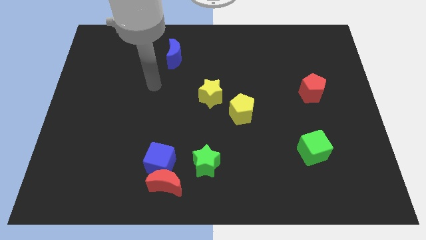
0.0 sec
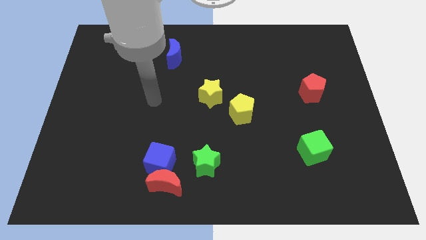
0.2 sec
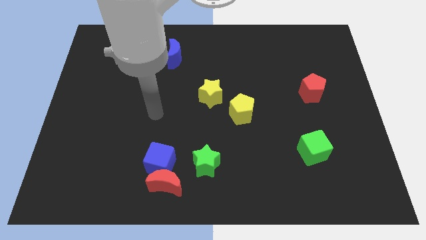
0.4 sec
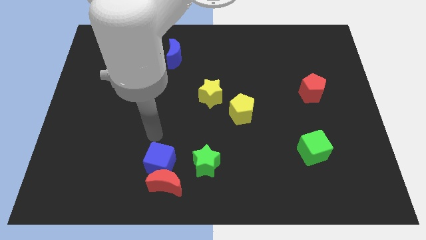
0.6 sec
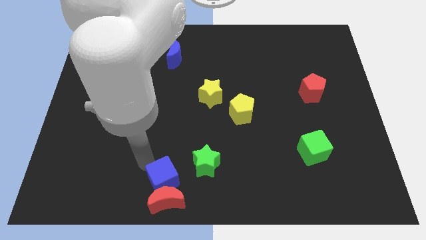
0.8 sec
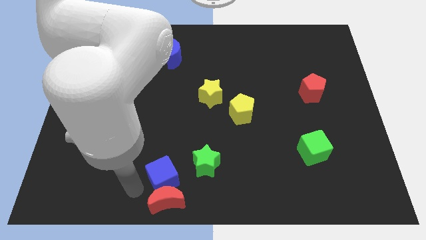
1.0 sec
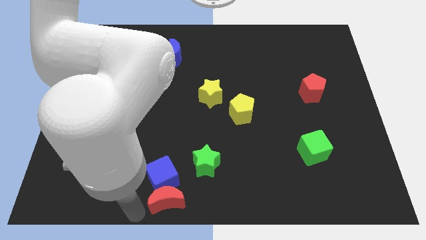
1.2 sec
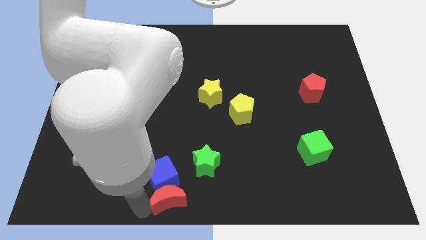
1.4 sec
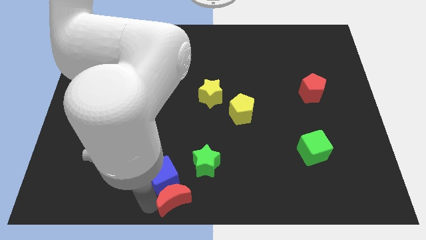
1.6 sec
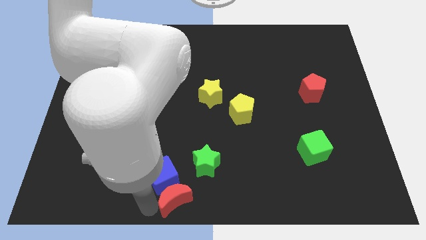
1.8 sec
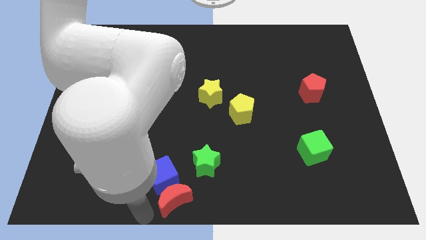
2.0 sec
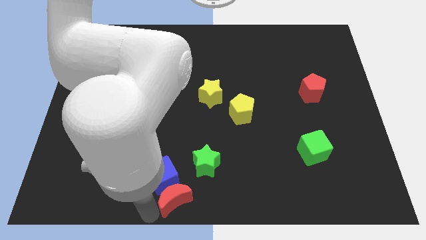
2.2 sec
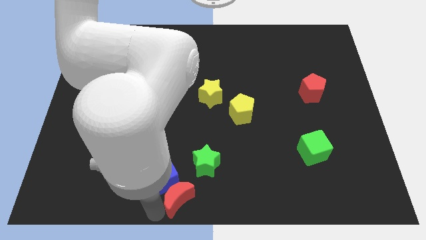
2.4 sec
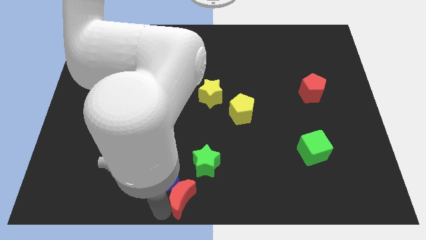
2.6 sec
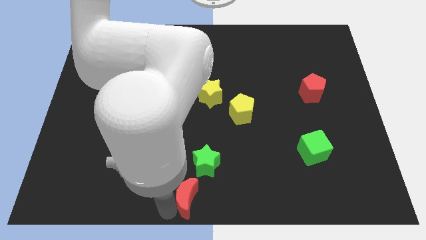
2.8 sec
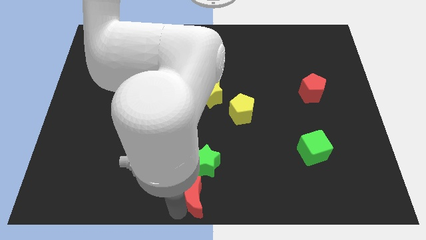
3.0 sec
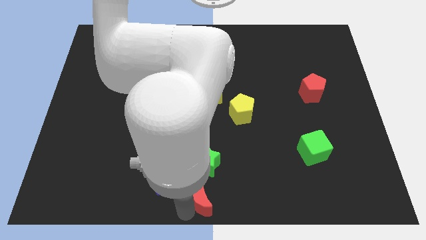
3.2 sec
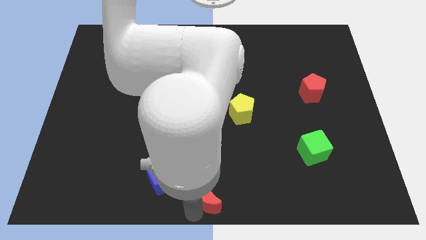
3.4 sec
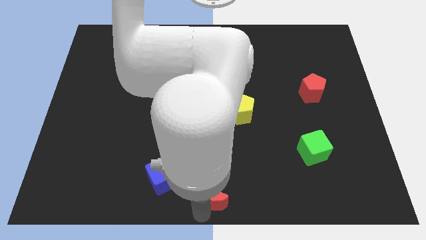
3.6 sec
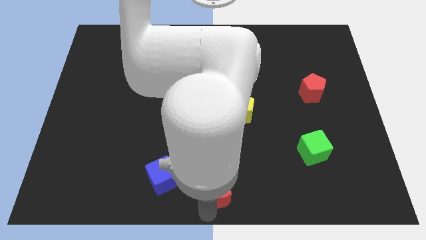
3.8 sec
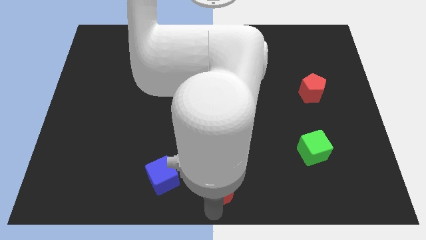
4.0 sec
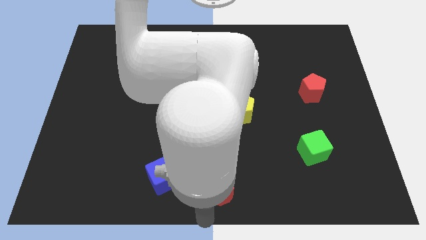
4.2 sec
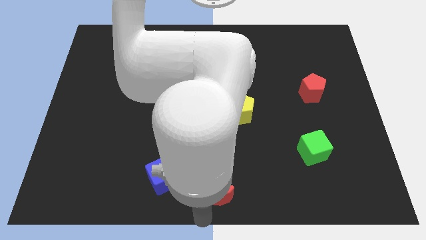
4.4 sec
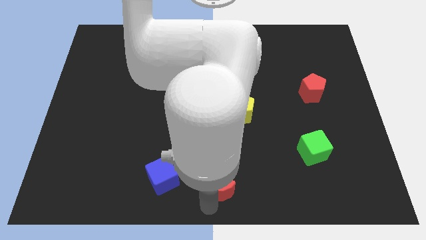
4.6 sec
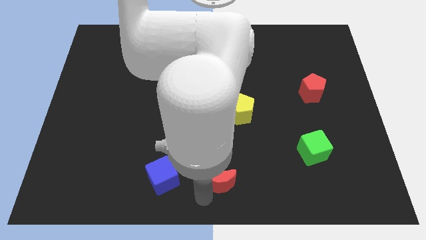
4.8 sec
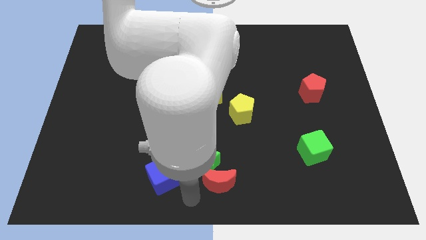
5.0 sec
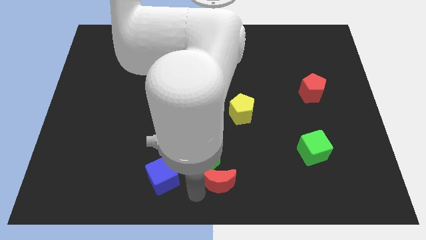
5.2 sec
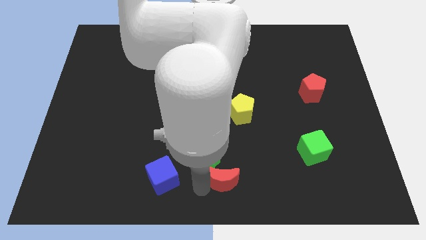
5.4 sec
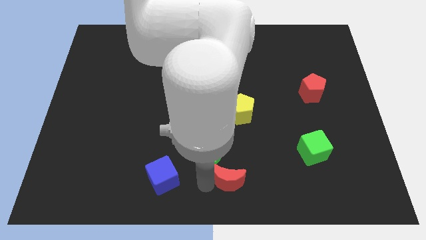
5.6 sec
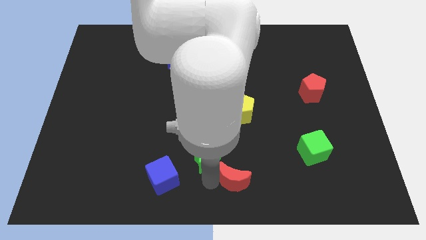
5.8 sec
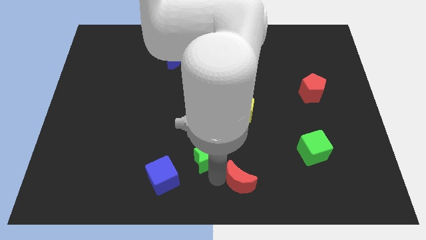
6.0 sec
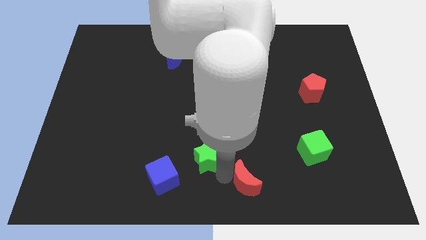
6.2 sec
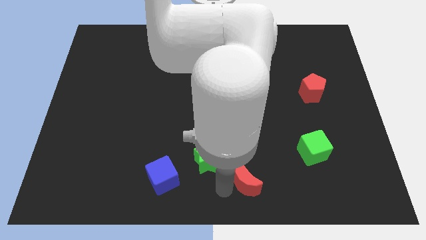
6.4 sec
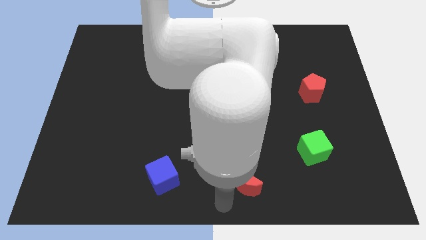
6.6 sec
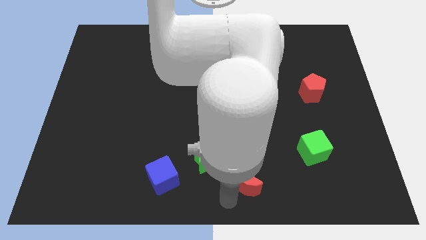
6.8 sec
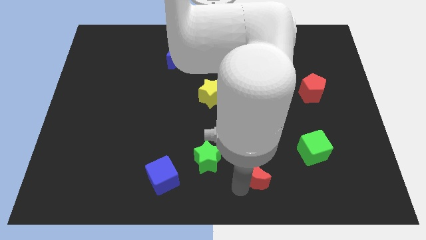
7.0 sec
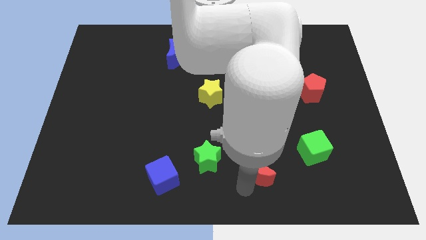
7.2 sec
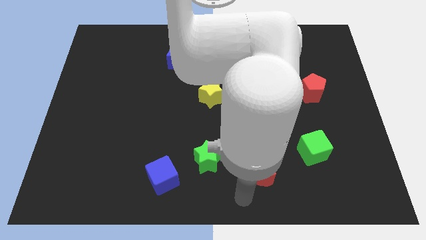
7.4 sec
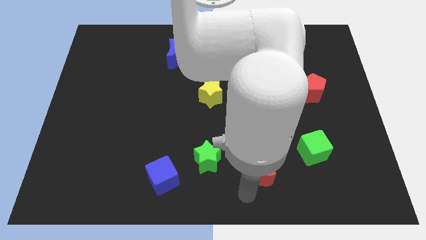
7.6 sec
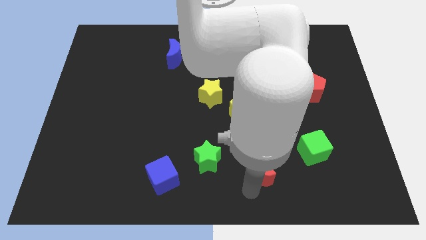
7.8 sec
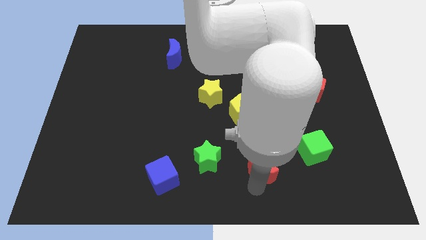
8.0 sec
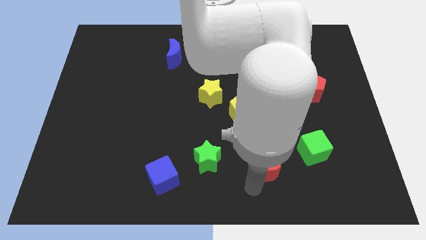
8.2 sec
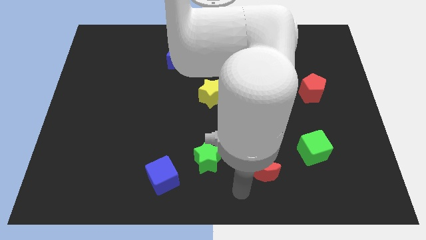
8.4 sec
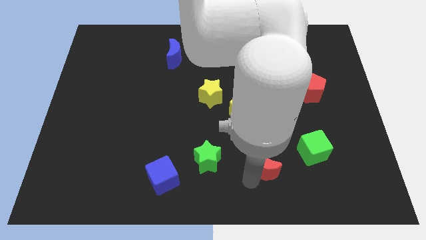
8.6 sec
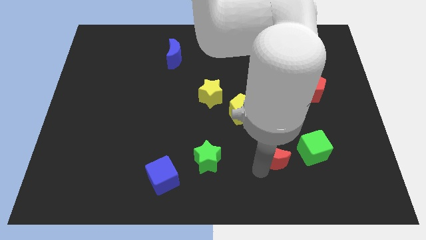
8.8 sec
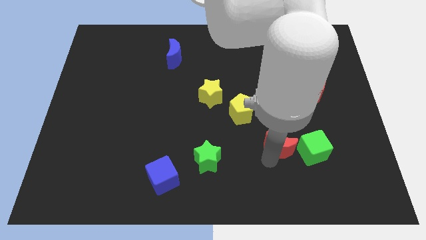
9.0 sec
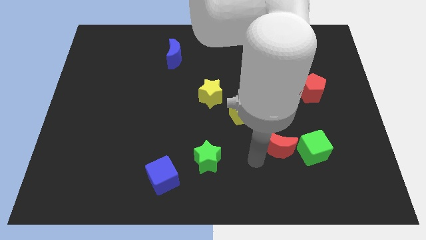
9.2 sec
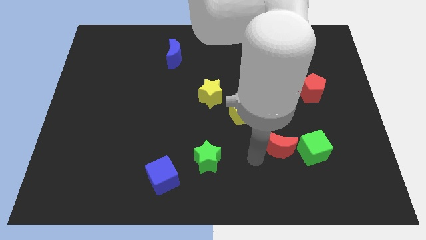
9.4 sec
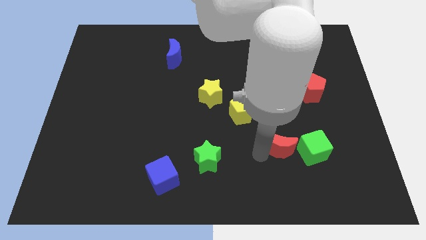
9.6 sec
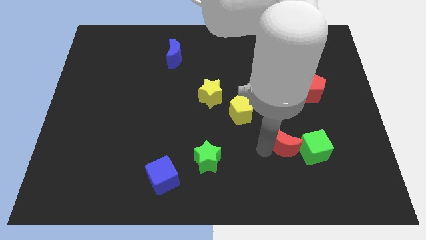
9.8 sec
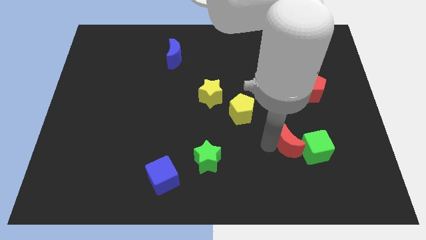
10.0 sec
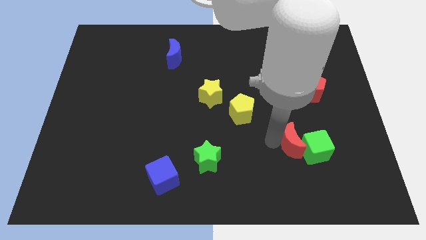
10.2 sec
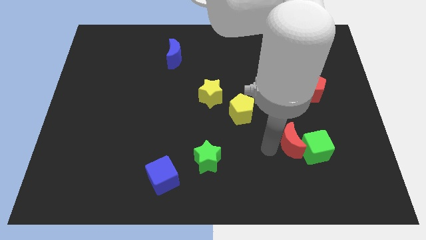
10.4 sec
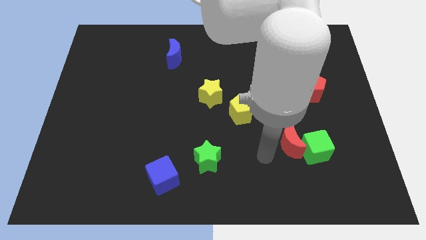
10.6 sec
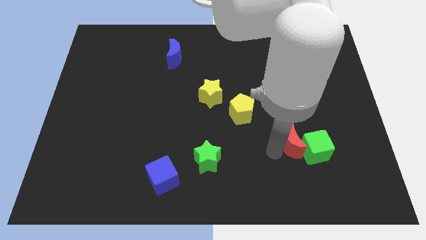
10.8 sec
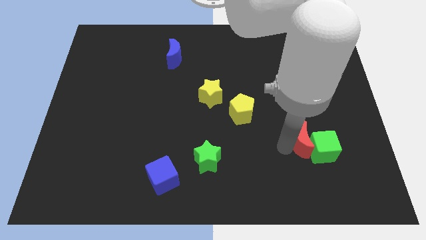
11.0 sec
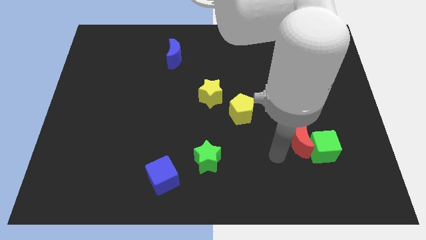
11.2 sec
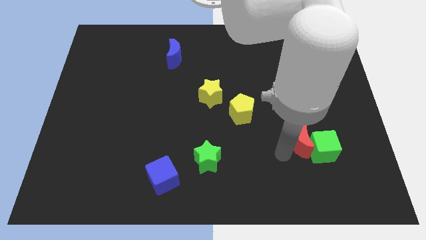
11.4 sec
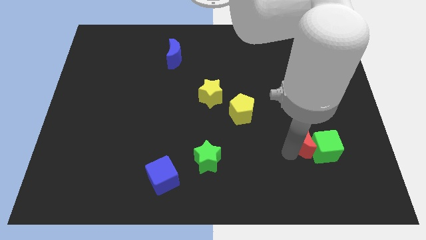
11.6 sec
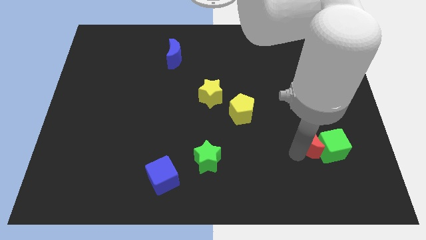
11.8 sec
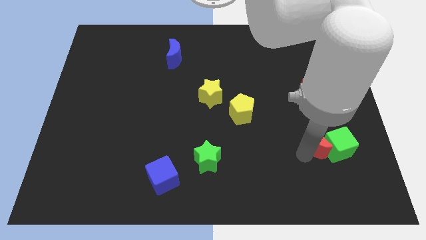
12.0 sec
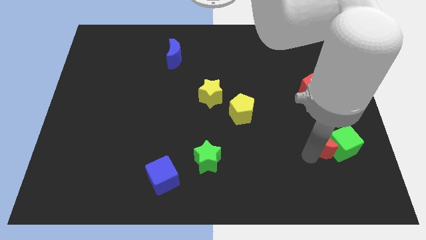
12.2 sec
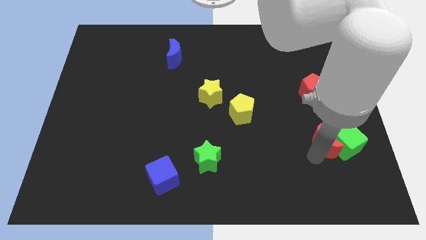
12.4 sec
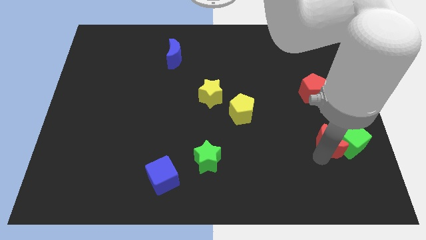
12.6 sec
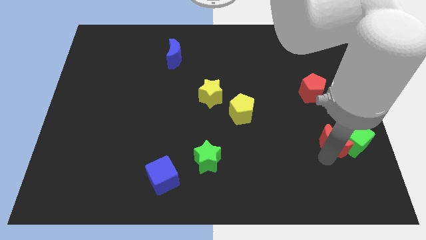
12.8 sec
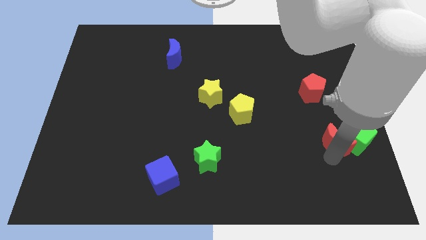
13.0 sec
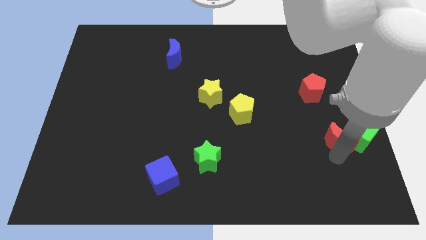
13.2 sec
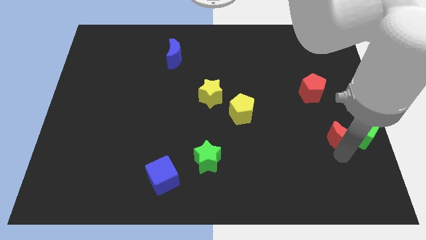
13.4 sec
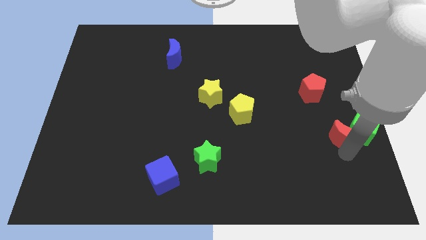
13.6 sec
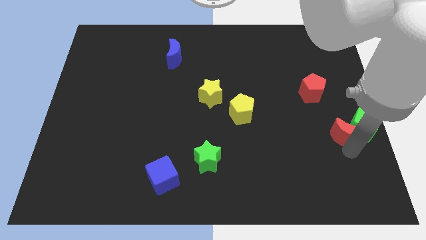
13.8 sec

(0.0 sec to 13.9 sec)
move the red moon to the center right
